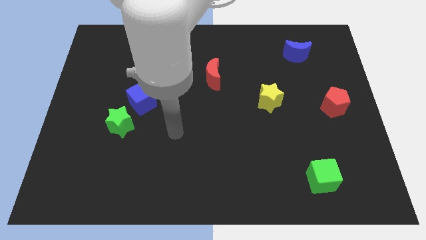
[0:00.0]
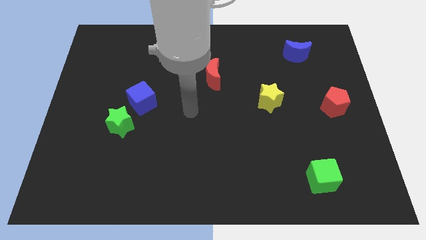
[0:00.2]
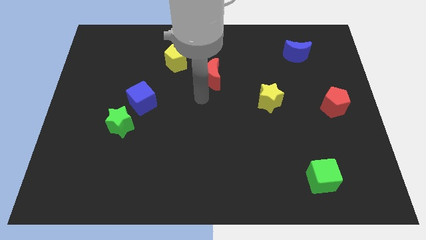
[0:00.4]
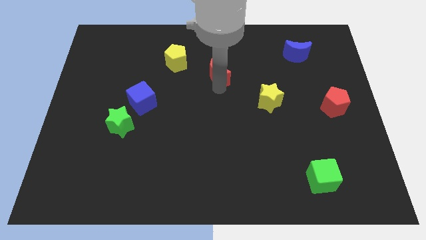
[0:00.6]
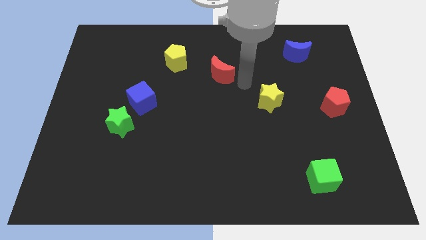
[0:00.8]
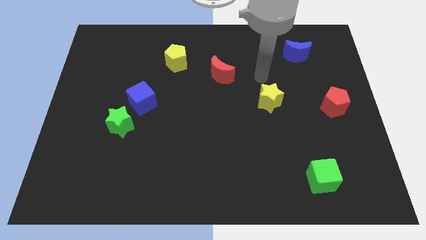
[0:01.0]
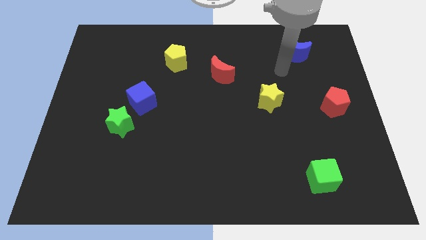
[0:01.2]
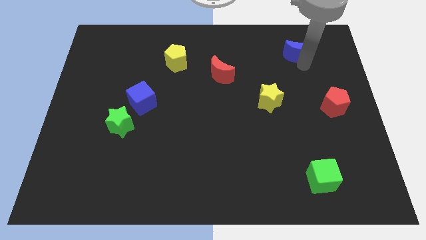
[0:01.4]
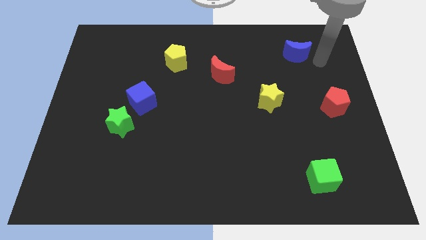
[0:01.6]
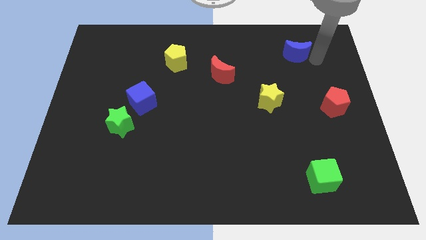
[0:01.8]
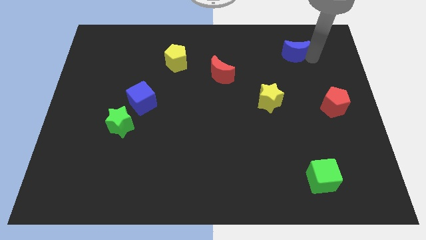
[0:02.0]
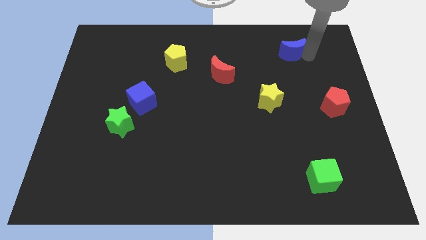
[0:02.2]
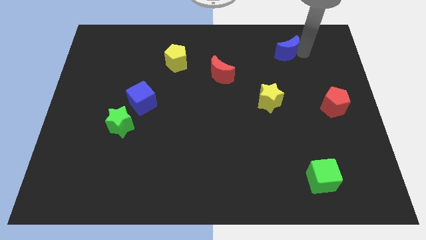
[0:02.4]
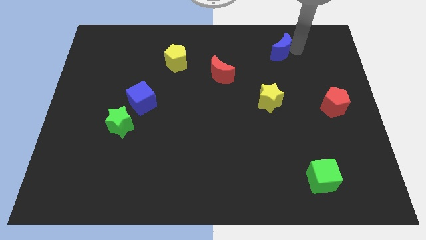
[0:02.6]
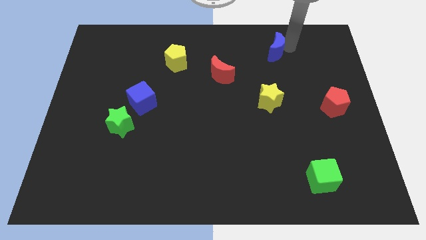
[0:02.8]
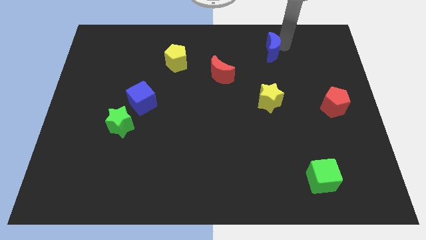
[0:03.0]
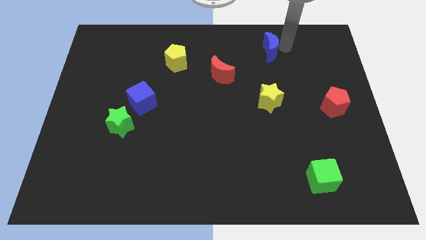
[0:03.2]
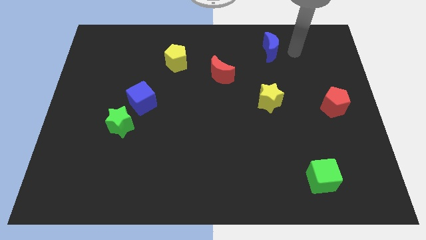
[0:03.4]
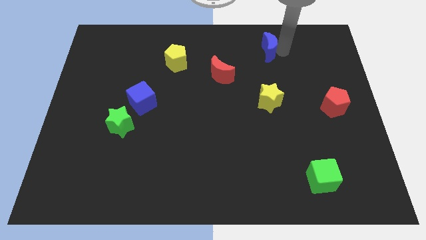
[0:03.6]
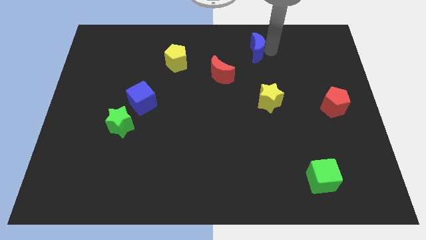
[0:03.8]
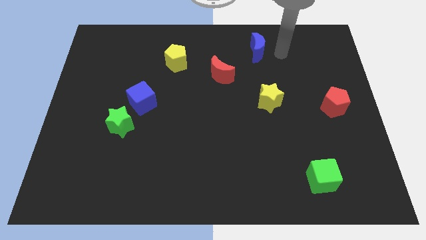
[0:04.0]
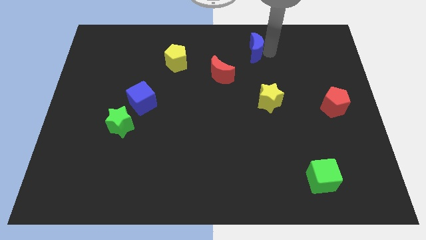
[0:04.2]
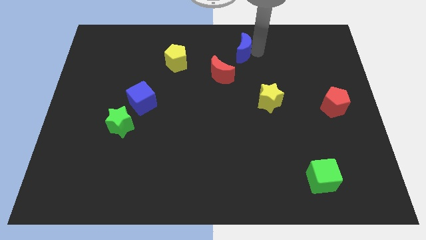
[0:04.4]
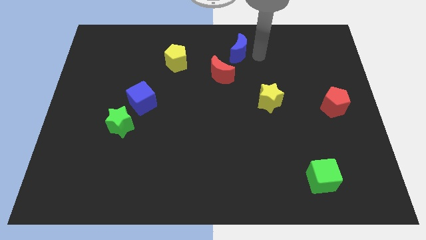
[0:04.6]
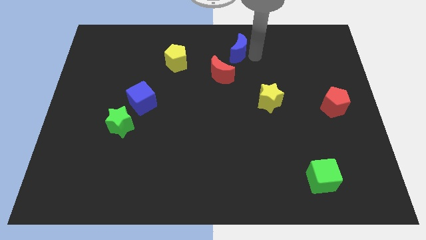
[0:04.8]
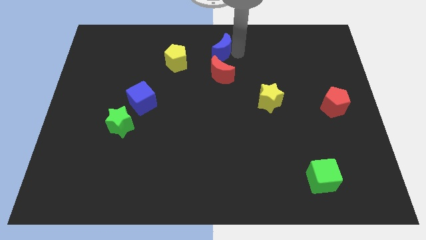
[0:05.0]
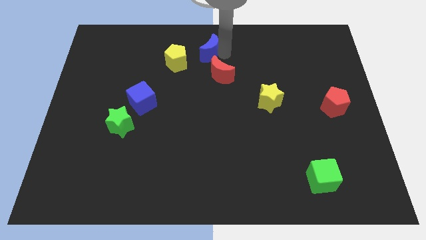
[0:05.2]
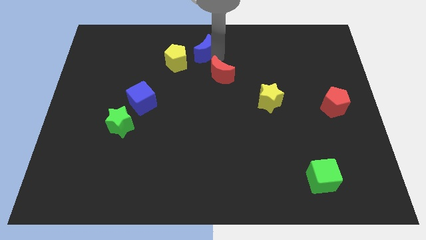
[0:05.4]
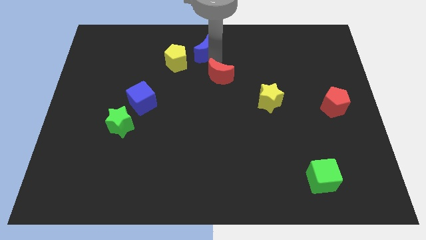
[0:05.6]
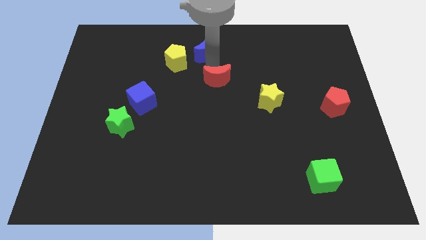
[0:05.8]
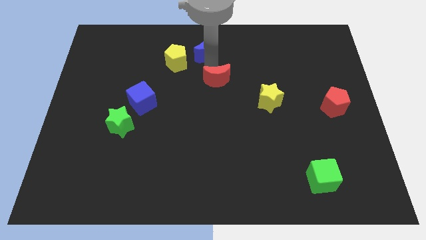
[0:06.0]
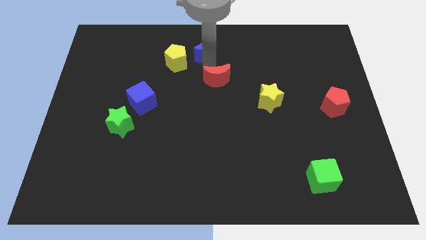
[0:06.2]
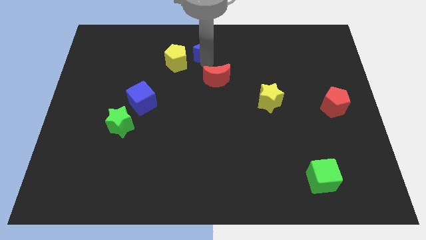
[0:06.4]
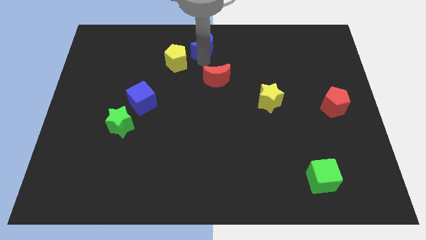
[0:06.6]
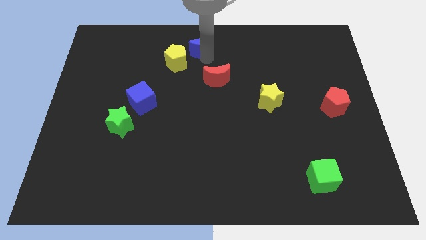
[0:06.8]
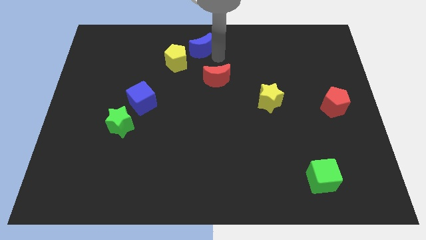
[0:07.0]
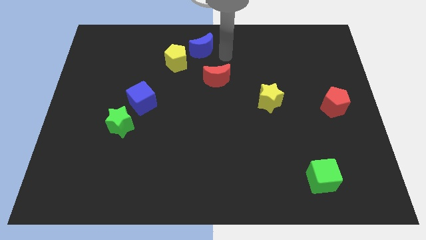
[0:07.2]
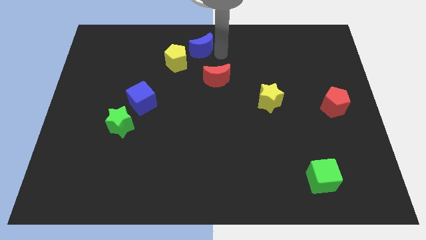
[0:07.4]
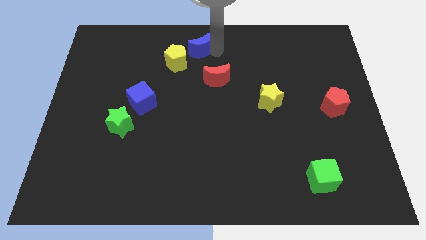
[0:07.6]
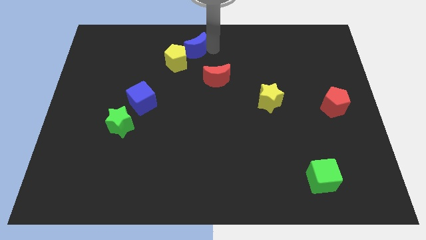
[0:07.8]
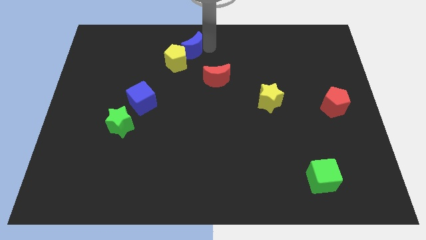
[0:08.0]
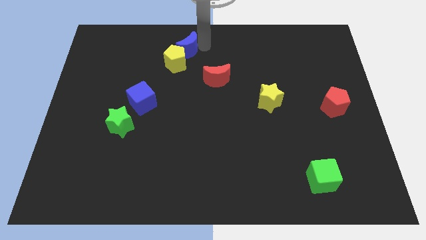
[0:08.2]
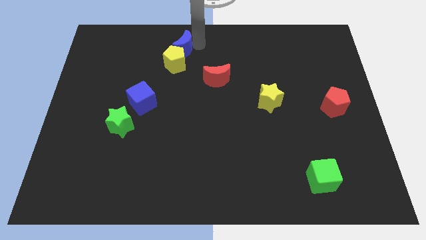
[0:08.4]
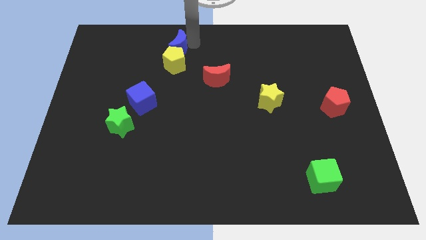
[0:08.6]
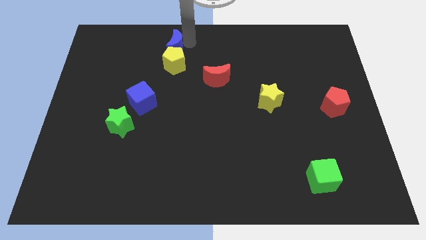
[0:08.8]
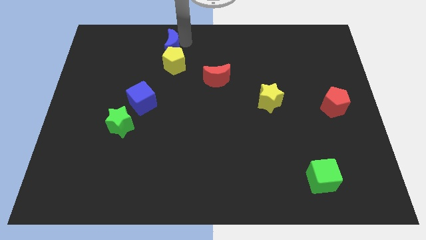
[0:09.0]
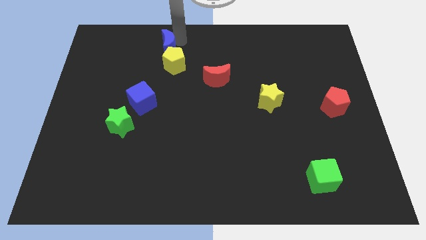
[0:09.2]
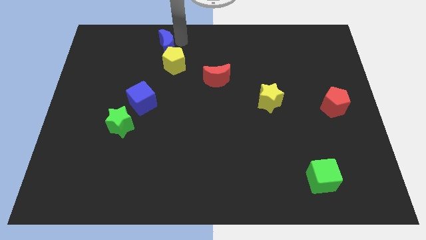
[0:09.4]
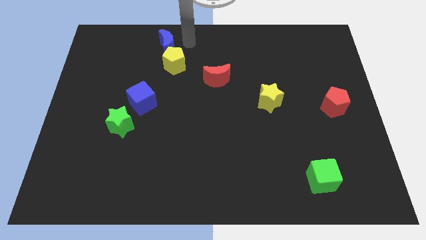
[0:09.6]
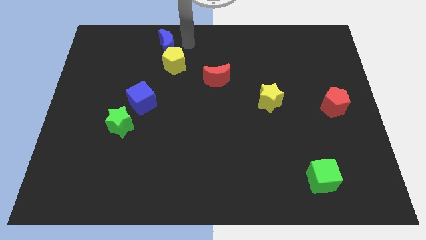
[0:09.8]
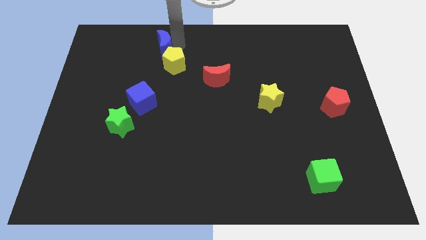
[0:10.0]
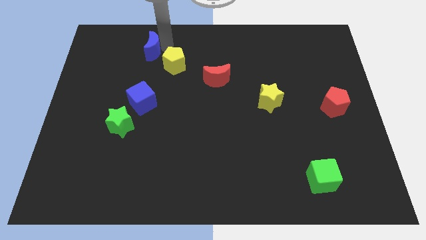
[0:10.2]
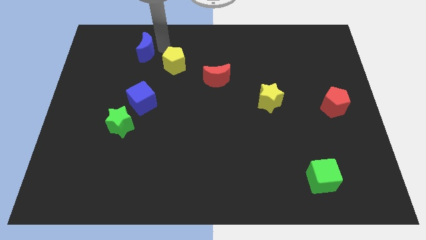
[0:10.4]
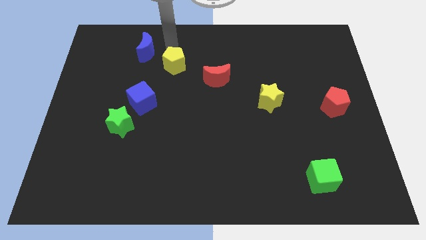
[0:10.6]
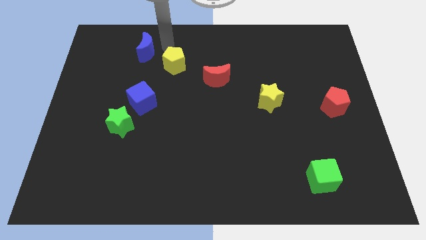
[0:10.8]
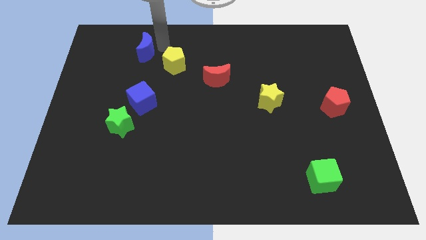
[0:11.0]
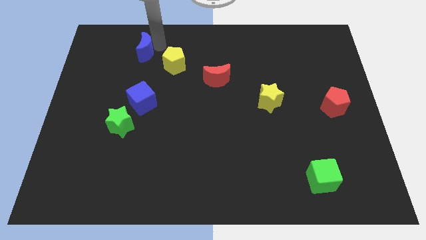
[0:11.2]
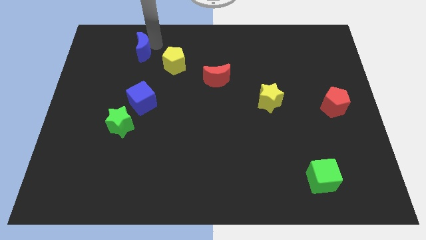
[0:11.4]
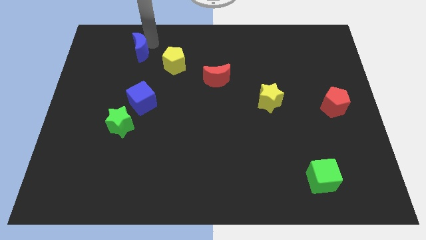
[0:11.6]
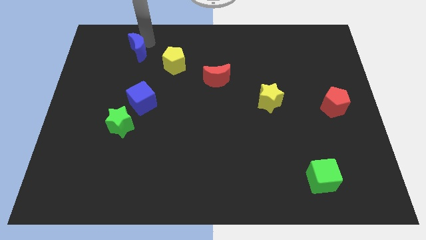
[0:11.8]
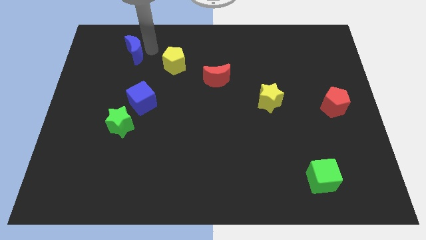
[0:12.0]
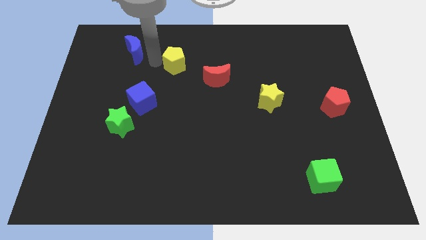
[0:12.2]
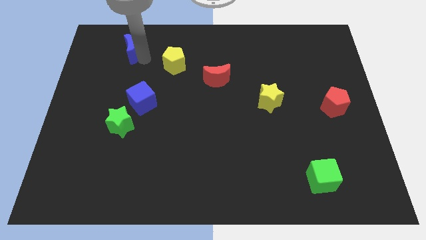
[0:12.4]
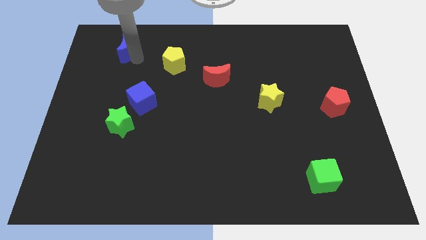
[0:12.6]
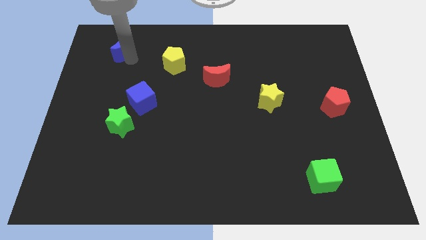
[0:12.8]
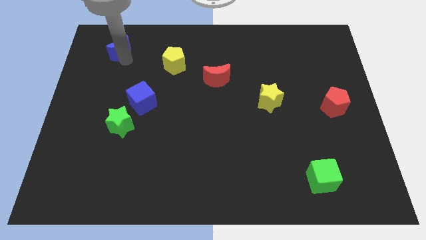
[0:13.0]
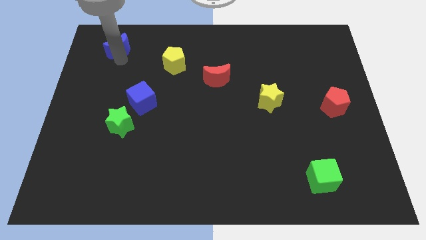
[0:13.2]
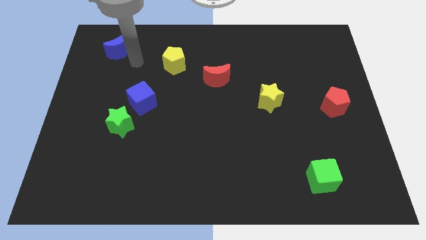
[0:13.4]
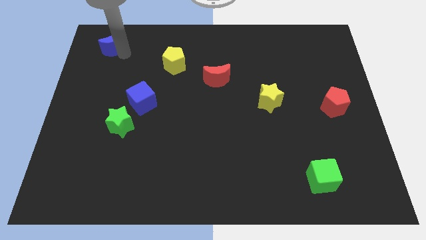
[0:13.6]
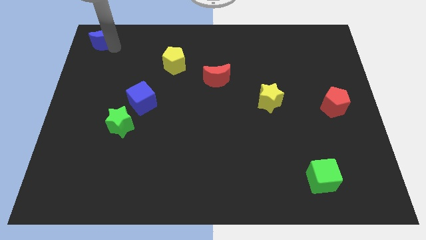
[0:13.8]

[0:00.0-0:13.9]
push the blue moon to the top left corner
